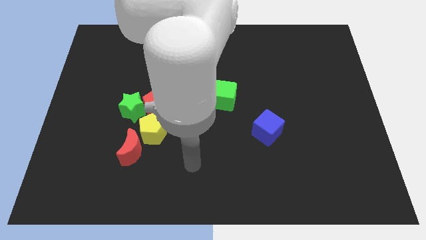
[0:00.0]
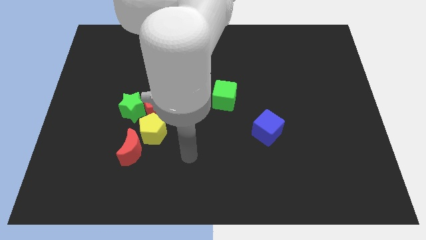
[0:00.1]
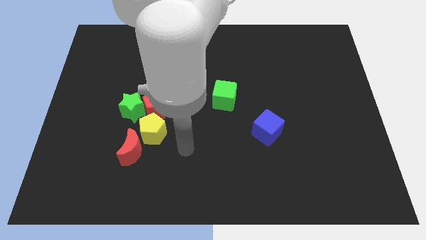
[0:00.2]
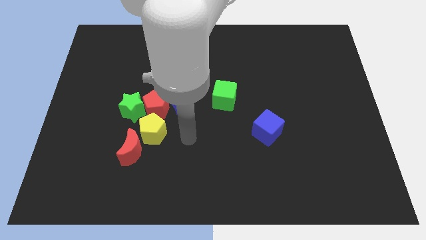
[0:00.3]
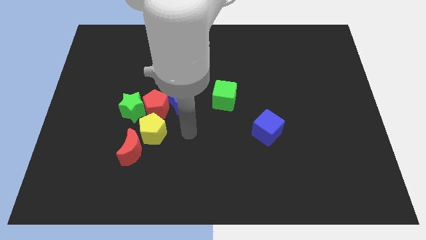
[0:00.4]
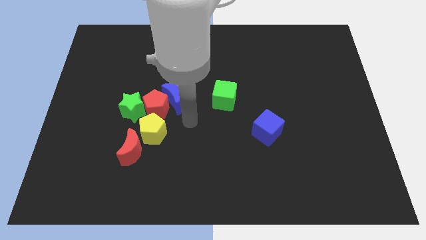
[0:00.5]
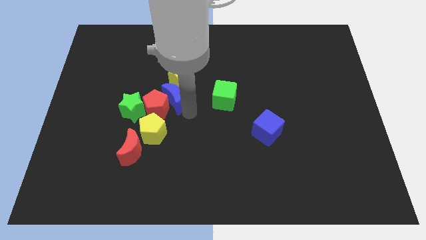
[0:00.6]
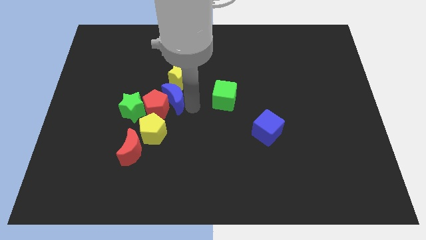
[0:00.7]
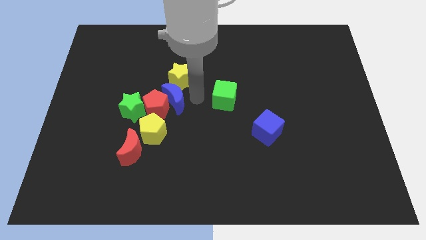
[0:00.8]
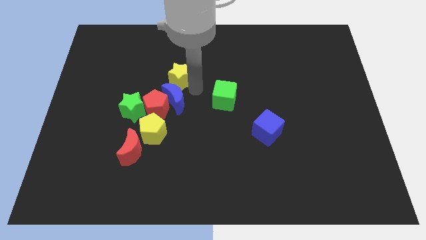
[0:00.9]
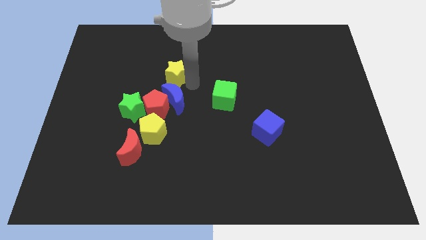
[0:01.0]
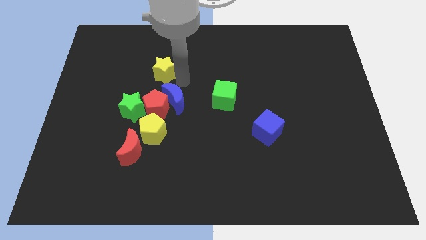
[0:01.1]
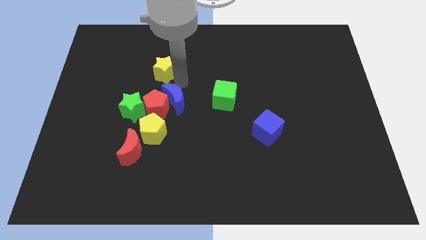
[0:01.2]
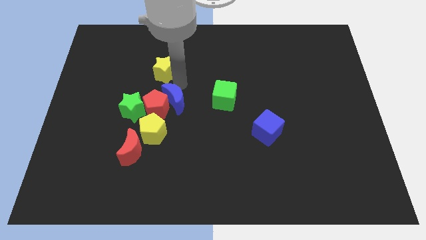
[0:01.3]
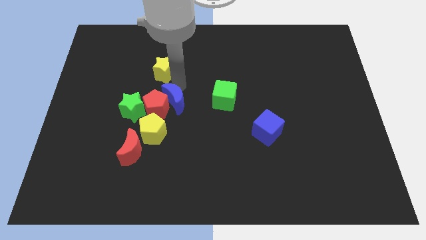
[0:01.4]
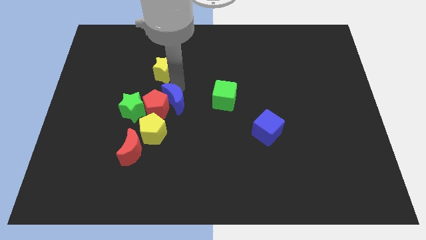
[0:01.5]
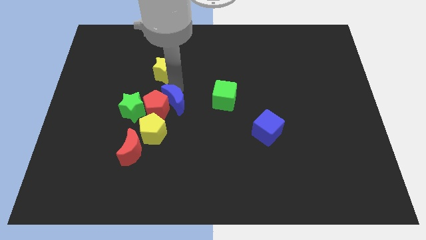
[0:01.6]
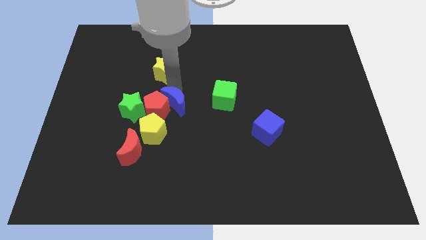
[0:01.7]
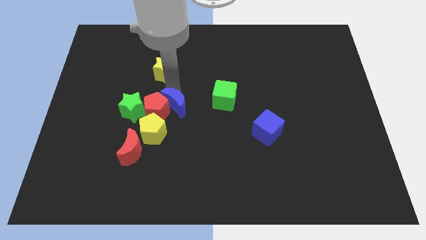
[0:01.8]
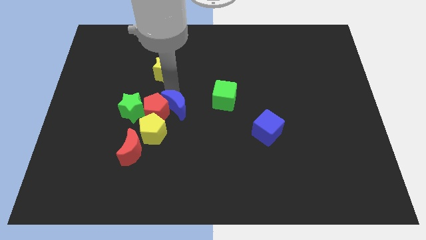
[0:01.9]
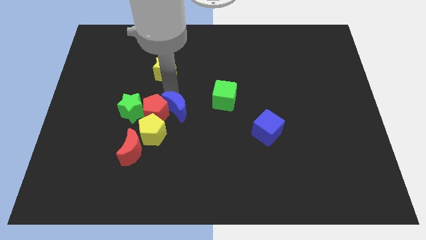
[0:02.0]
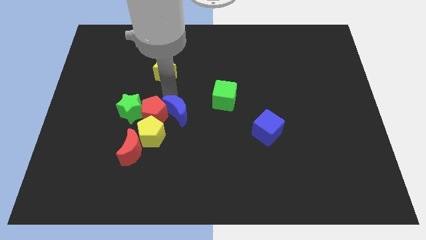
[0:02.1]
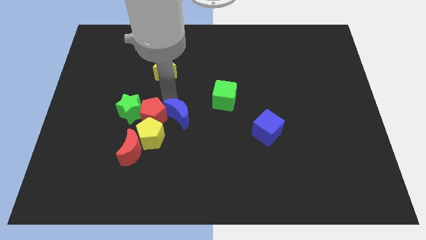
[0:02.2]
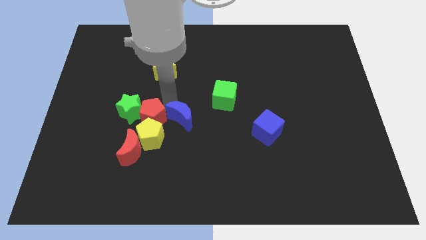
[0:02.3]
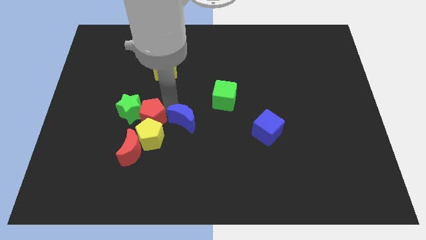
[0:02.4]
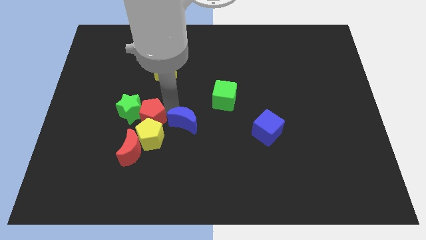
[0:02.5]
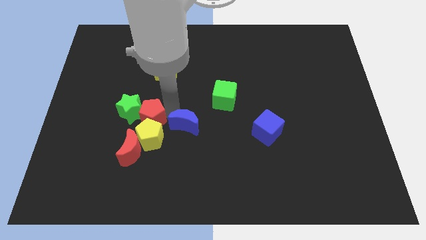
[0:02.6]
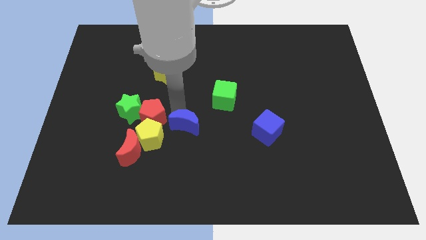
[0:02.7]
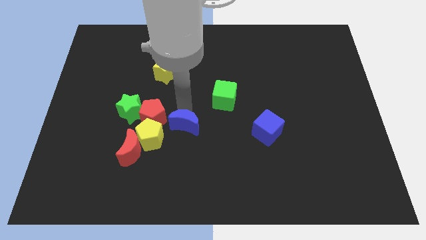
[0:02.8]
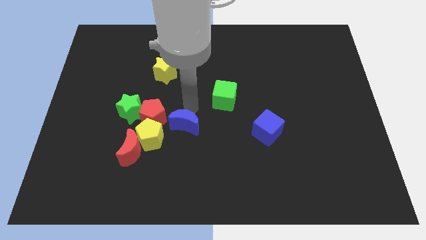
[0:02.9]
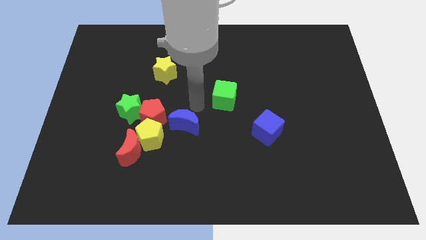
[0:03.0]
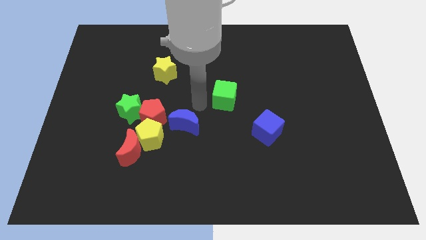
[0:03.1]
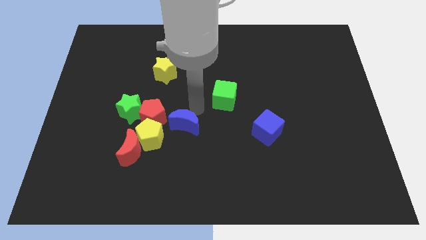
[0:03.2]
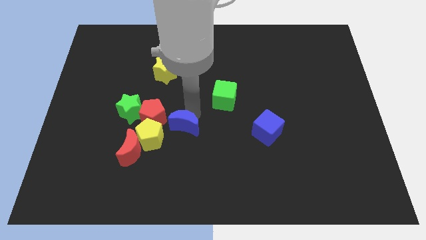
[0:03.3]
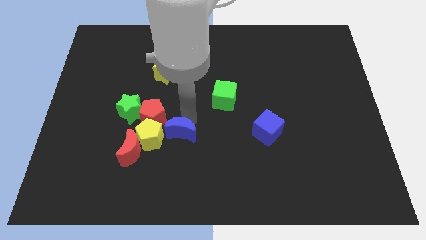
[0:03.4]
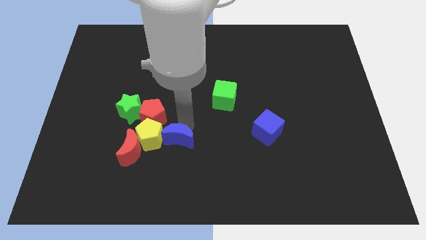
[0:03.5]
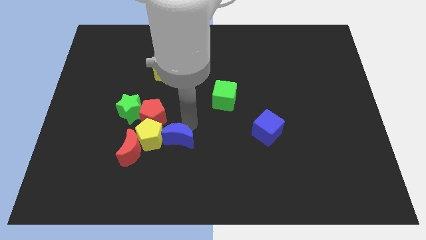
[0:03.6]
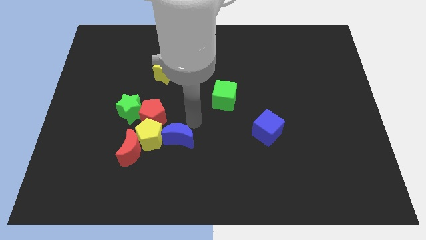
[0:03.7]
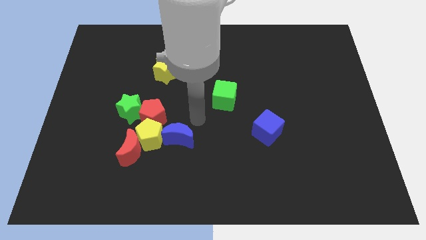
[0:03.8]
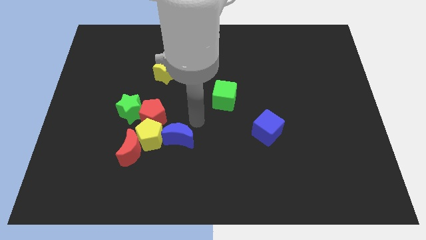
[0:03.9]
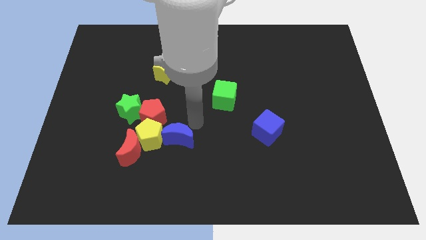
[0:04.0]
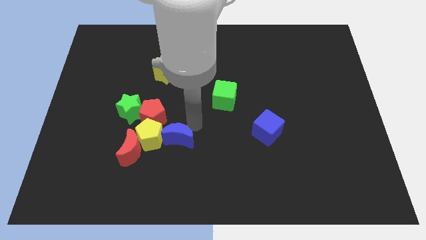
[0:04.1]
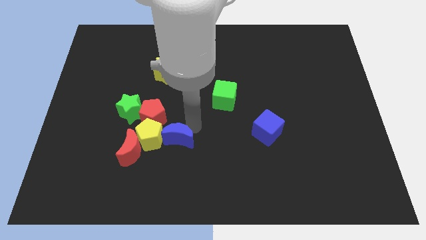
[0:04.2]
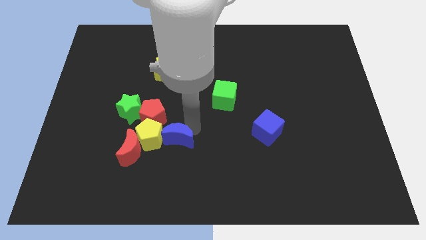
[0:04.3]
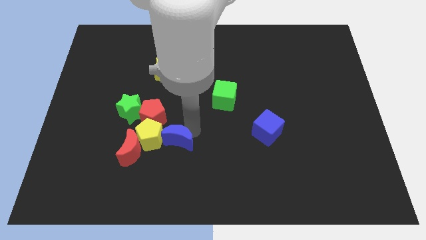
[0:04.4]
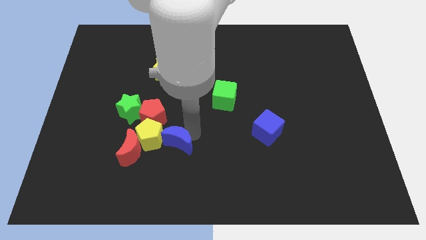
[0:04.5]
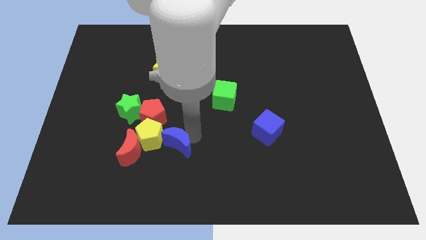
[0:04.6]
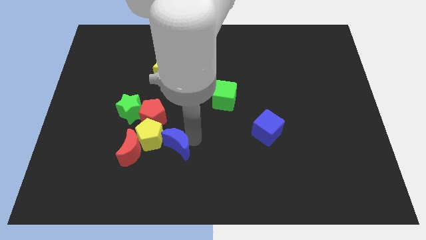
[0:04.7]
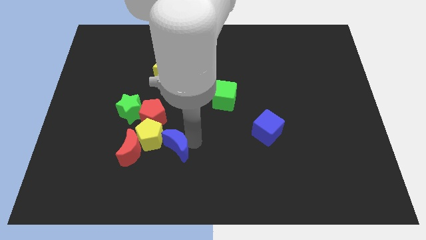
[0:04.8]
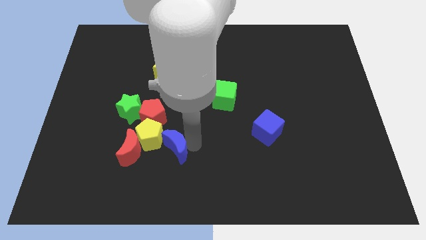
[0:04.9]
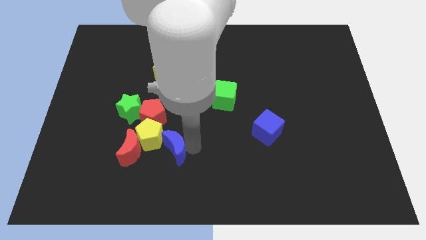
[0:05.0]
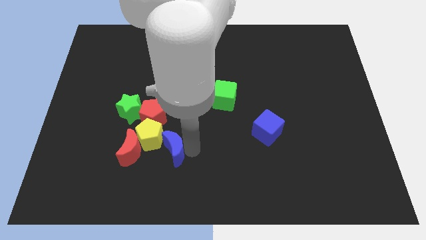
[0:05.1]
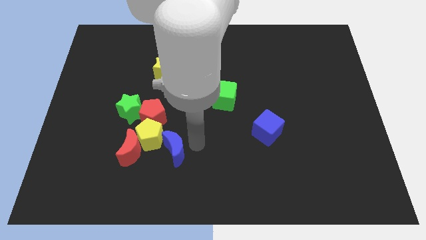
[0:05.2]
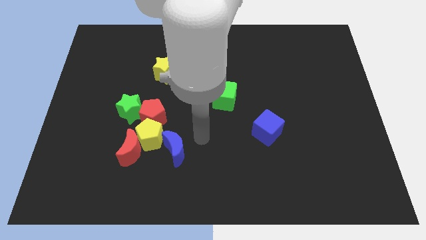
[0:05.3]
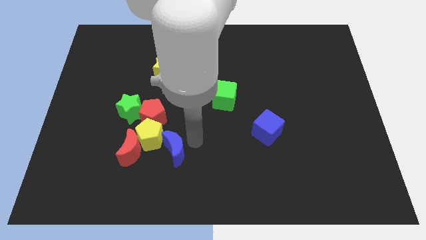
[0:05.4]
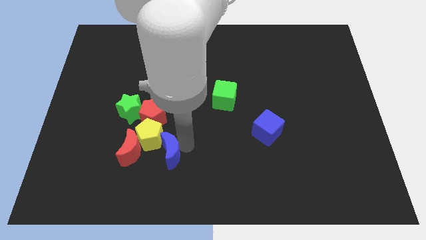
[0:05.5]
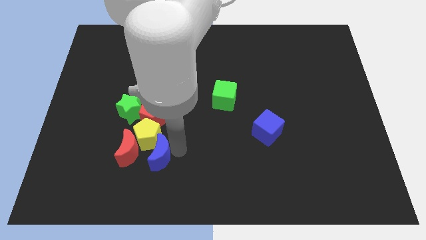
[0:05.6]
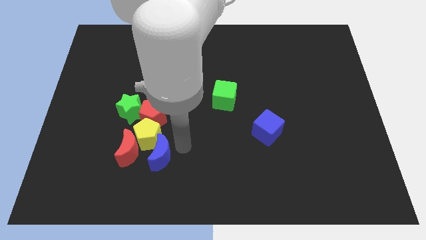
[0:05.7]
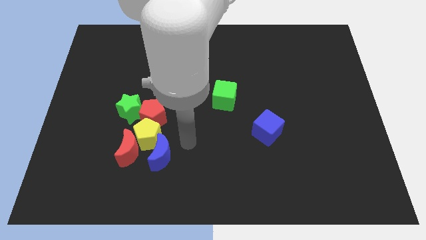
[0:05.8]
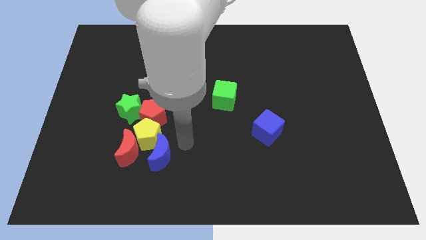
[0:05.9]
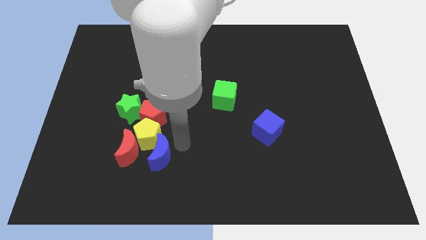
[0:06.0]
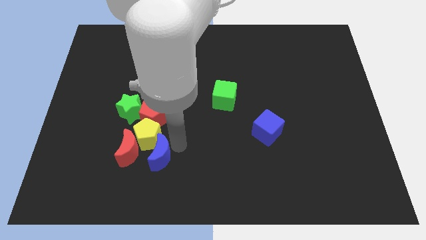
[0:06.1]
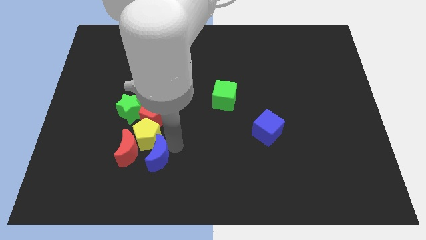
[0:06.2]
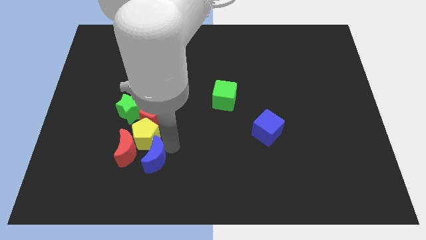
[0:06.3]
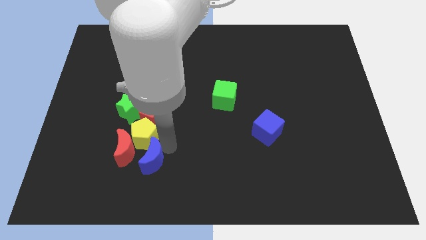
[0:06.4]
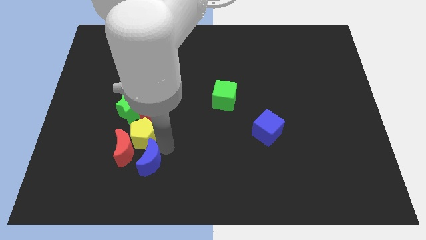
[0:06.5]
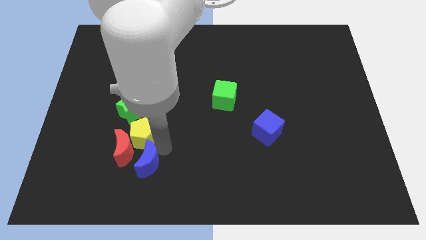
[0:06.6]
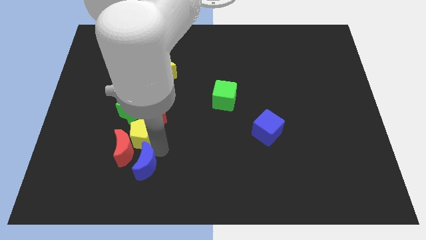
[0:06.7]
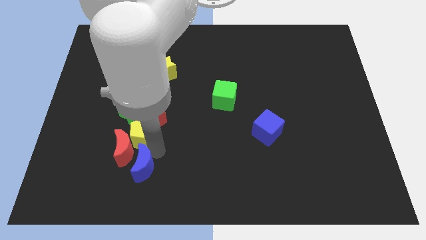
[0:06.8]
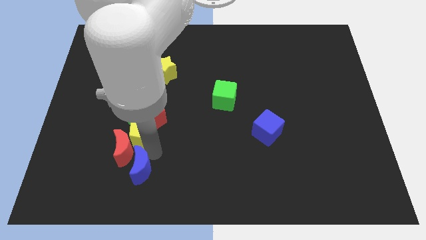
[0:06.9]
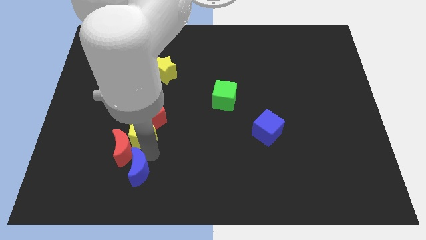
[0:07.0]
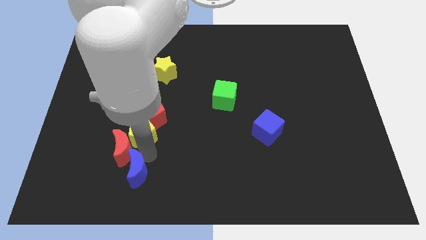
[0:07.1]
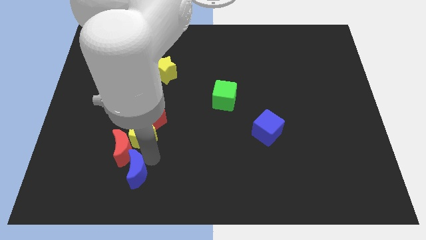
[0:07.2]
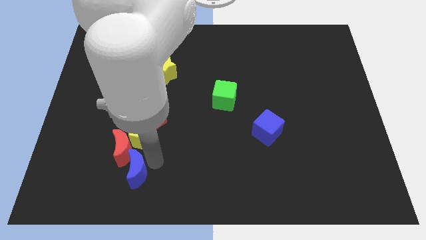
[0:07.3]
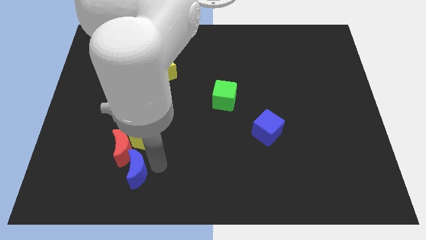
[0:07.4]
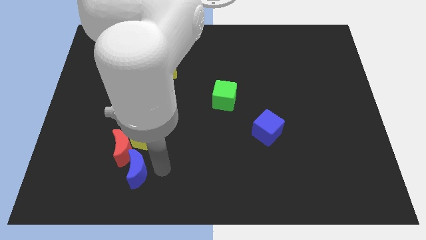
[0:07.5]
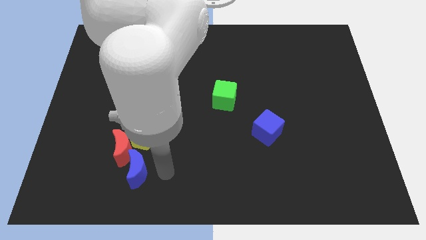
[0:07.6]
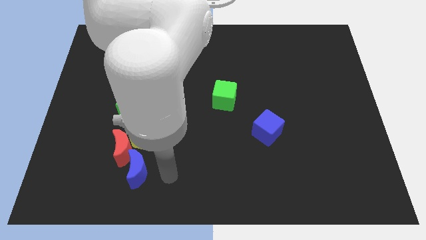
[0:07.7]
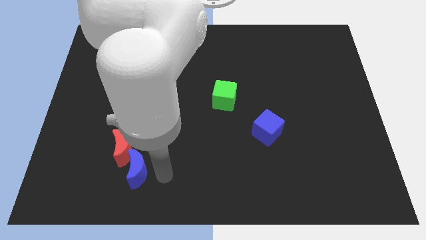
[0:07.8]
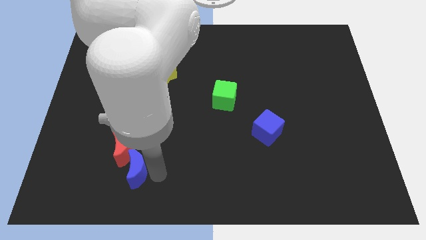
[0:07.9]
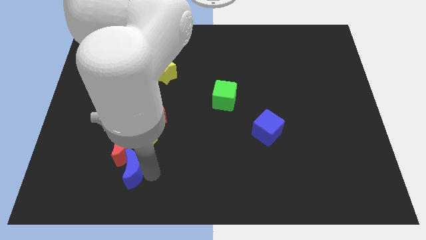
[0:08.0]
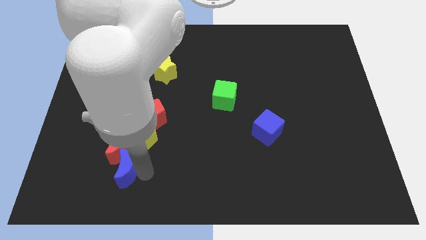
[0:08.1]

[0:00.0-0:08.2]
push the blue moon to the bottom left side of the yellow pentagon
